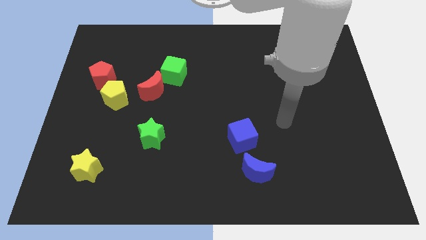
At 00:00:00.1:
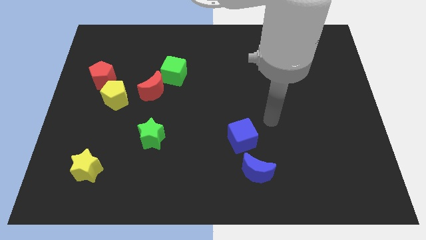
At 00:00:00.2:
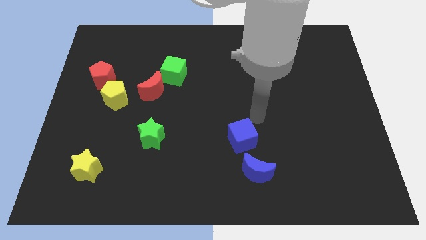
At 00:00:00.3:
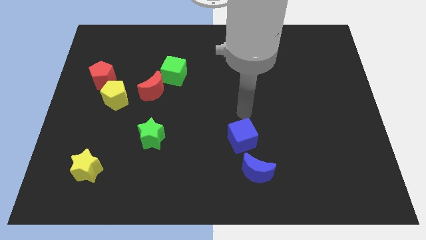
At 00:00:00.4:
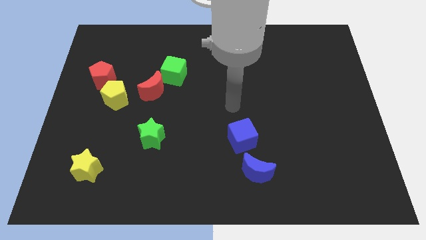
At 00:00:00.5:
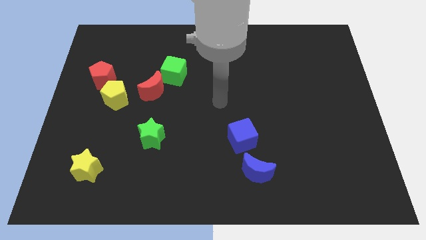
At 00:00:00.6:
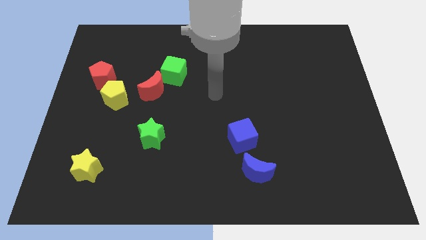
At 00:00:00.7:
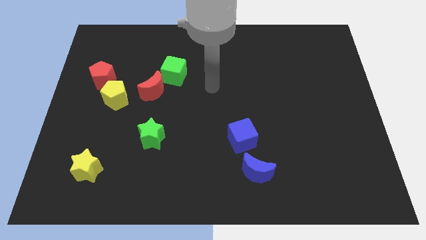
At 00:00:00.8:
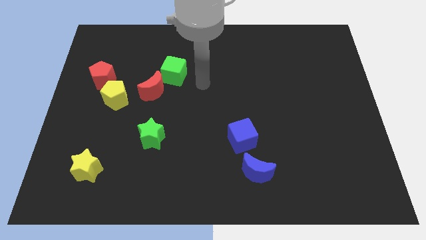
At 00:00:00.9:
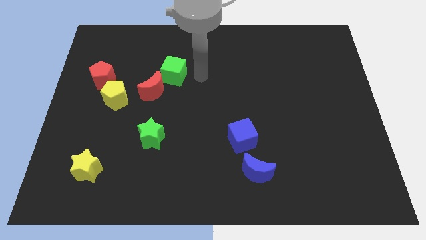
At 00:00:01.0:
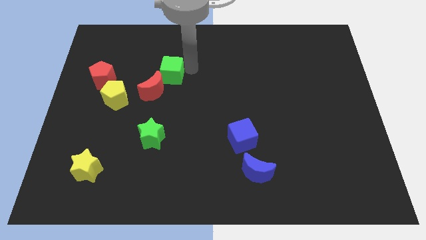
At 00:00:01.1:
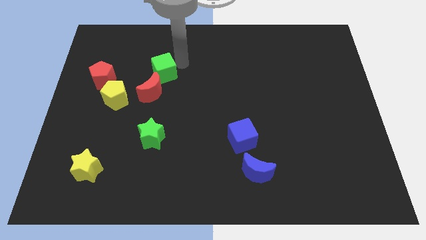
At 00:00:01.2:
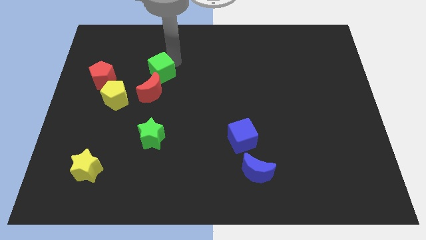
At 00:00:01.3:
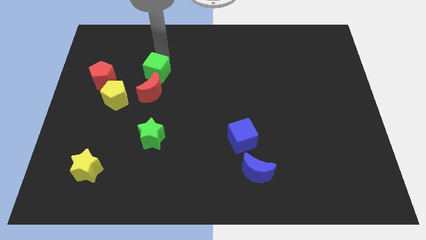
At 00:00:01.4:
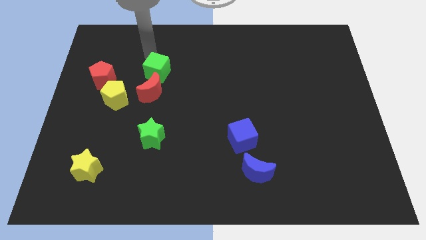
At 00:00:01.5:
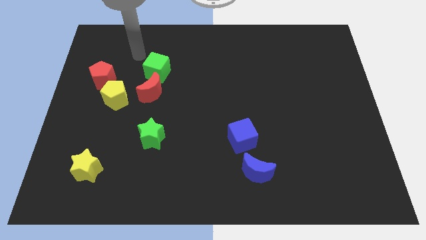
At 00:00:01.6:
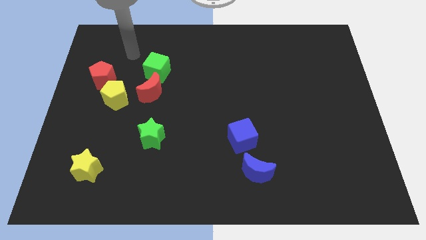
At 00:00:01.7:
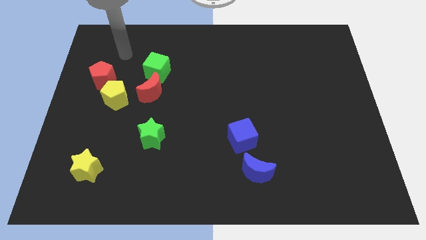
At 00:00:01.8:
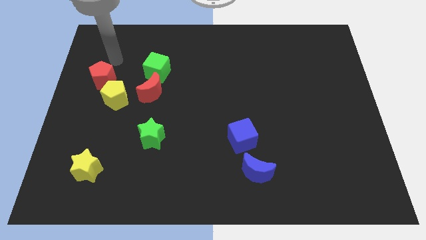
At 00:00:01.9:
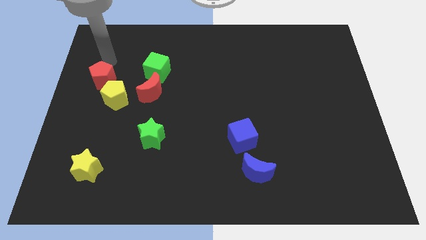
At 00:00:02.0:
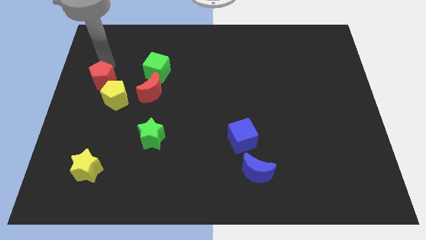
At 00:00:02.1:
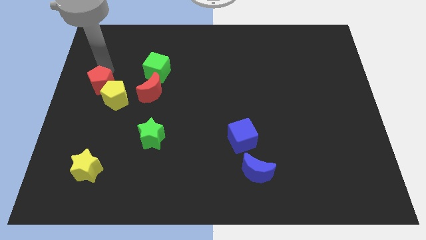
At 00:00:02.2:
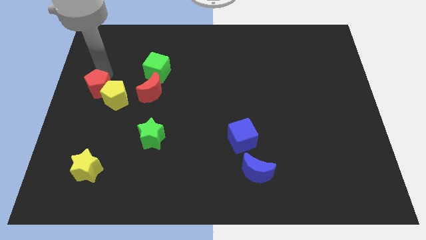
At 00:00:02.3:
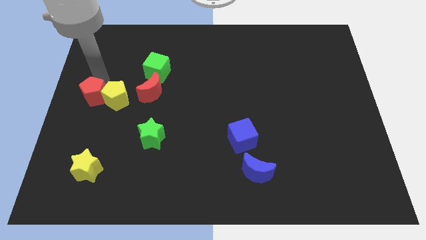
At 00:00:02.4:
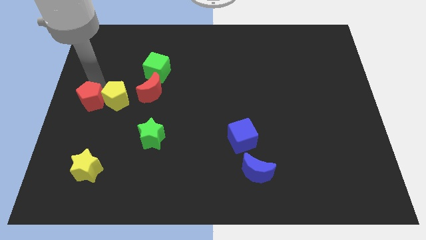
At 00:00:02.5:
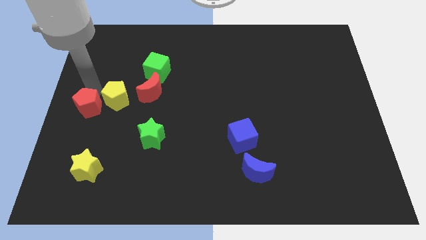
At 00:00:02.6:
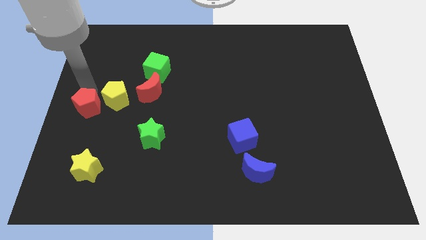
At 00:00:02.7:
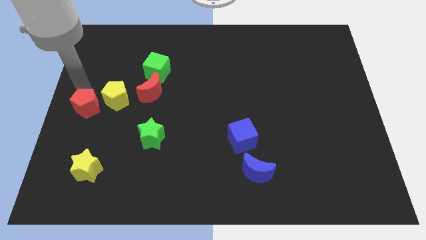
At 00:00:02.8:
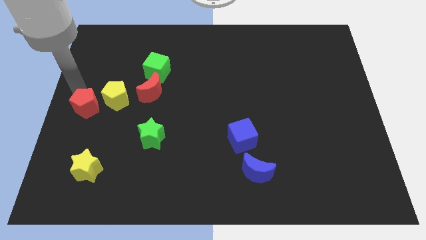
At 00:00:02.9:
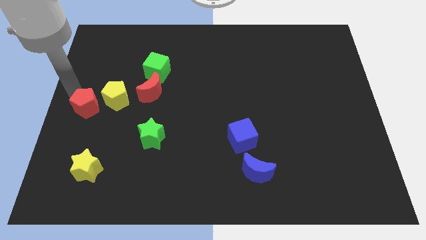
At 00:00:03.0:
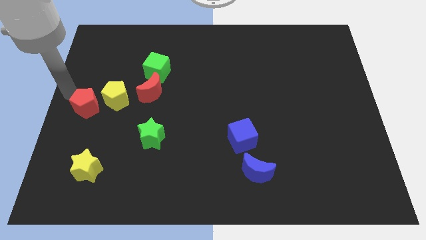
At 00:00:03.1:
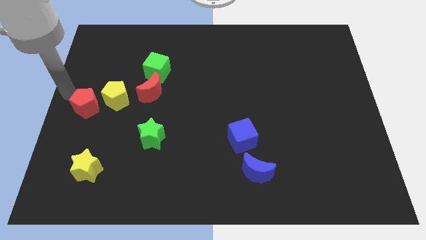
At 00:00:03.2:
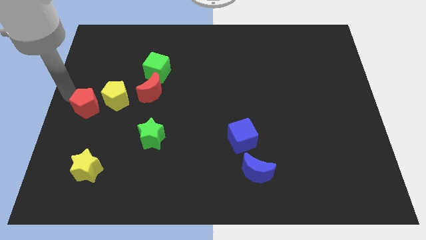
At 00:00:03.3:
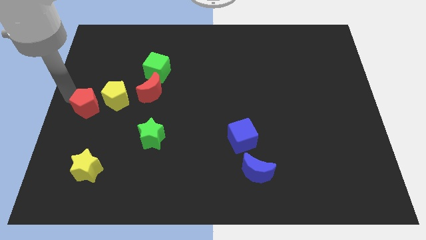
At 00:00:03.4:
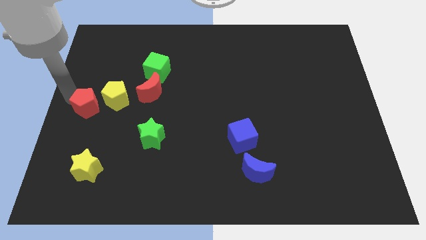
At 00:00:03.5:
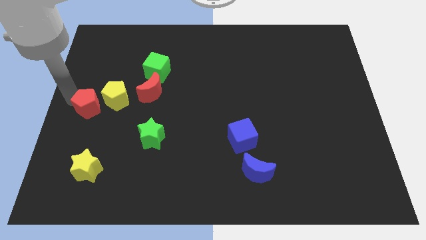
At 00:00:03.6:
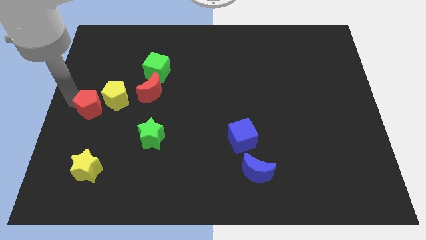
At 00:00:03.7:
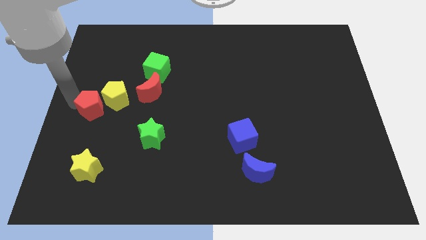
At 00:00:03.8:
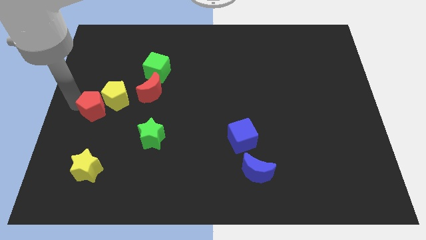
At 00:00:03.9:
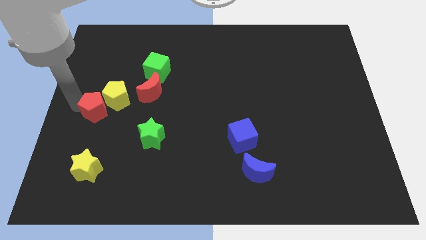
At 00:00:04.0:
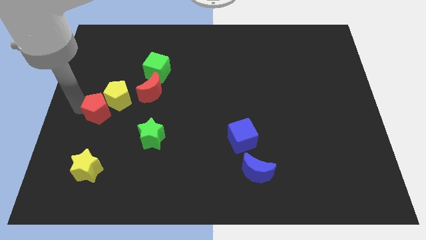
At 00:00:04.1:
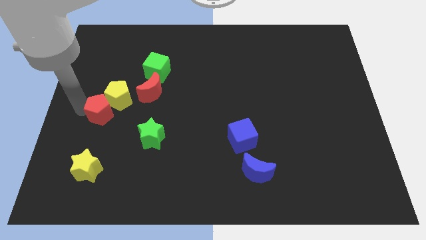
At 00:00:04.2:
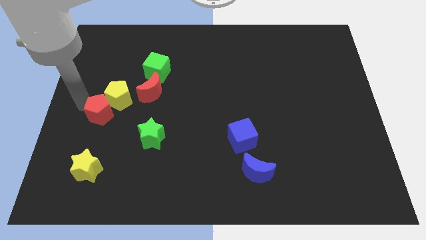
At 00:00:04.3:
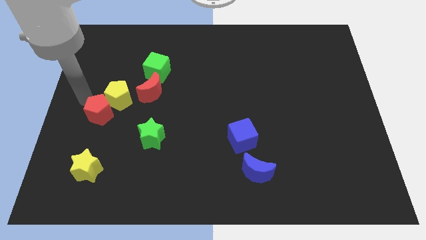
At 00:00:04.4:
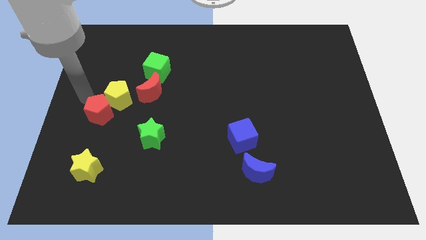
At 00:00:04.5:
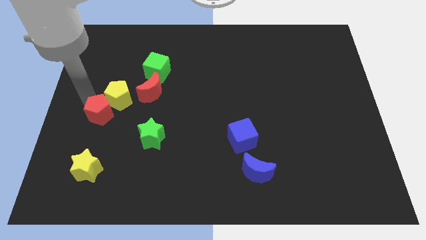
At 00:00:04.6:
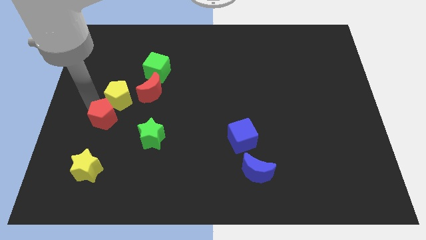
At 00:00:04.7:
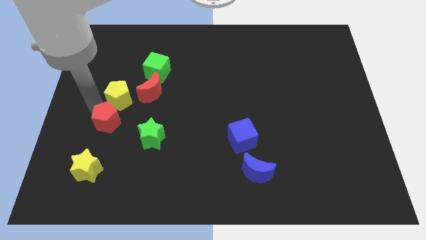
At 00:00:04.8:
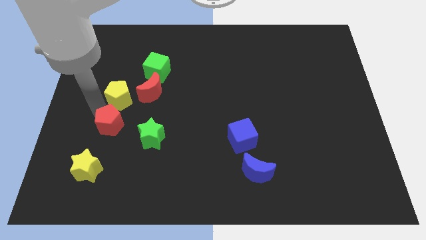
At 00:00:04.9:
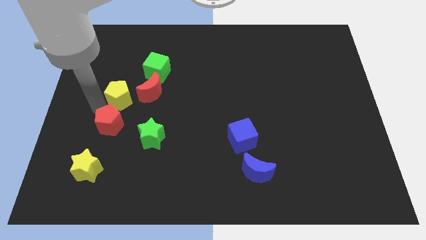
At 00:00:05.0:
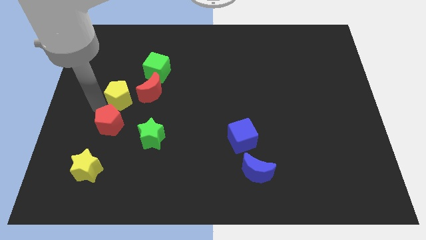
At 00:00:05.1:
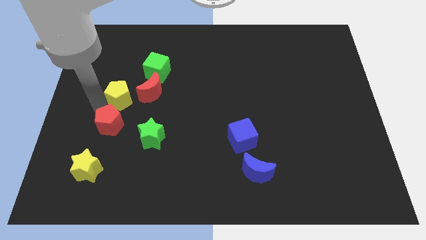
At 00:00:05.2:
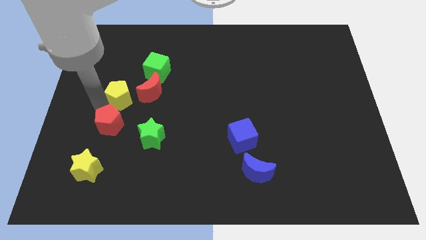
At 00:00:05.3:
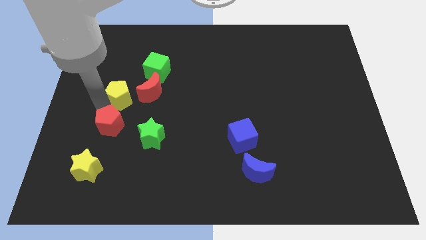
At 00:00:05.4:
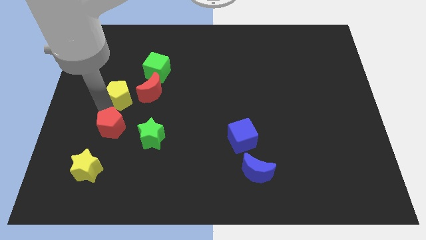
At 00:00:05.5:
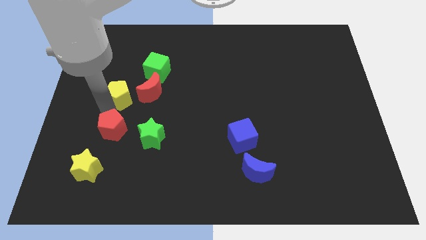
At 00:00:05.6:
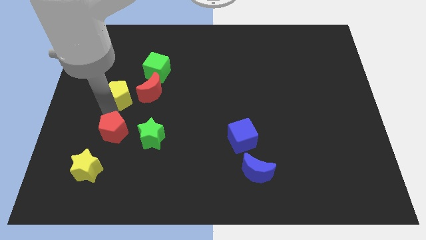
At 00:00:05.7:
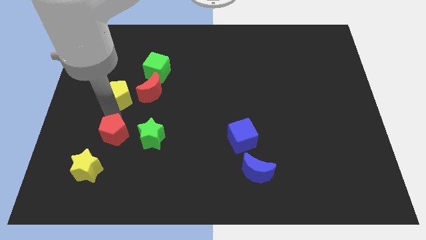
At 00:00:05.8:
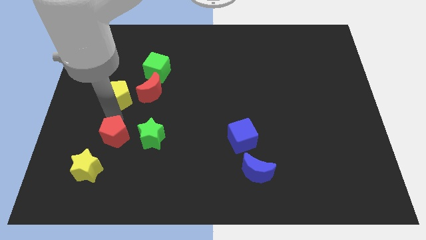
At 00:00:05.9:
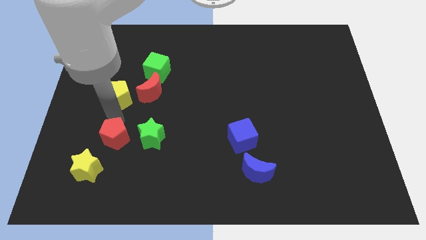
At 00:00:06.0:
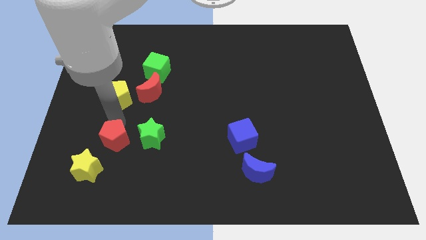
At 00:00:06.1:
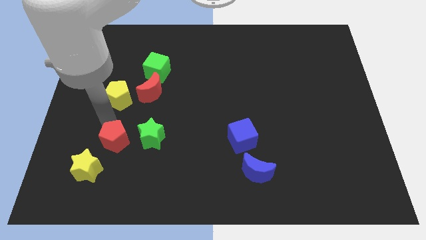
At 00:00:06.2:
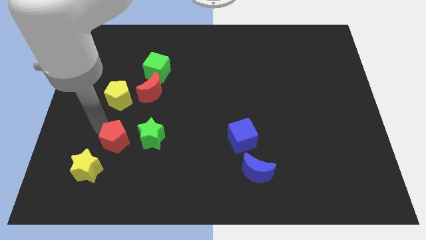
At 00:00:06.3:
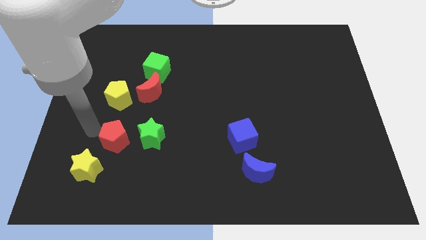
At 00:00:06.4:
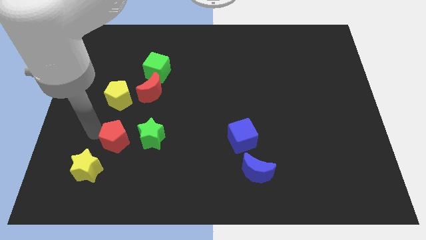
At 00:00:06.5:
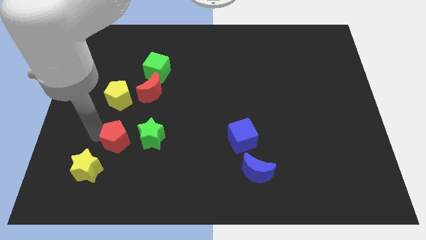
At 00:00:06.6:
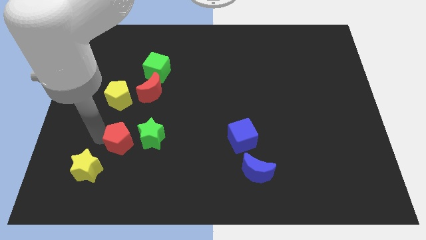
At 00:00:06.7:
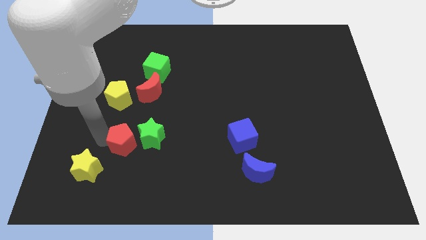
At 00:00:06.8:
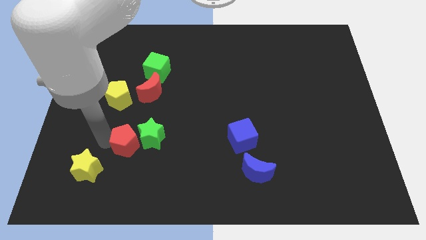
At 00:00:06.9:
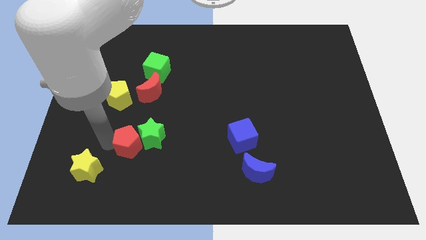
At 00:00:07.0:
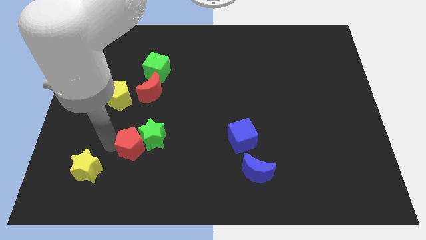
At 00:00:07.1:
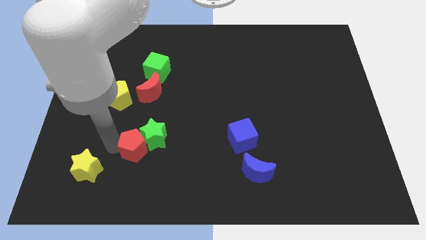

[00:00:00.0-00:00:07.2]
slide the red pentagon down and then to the right

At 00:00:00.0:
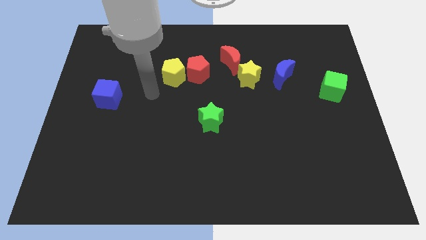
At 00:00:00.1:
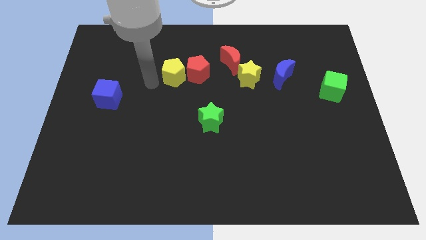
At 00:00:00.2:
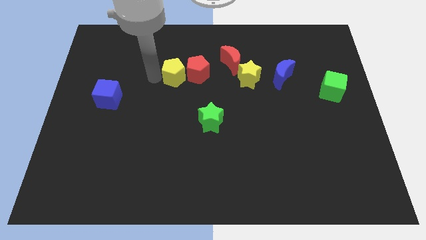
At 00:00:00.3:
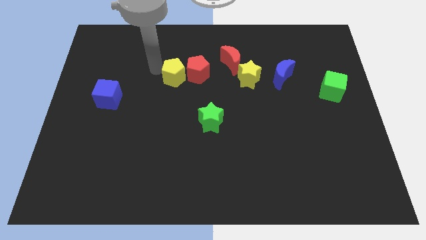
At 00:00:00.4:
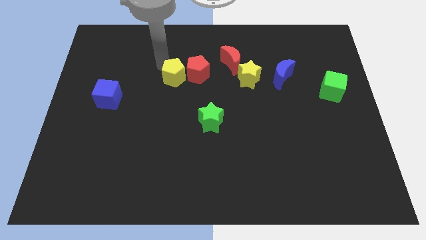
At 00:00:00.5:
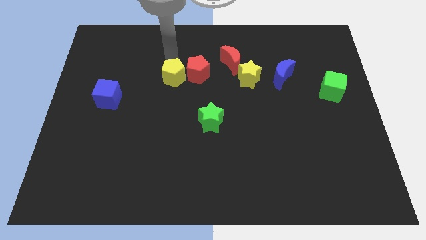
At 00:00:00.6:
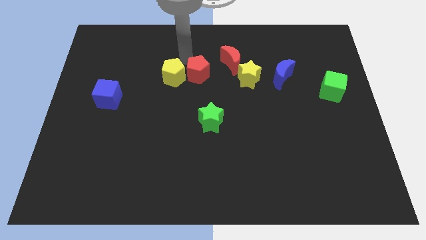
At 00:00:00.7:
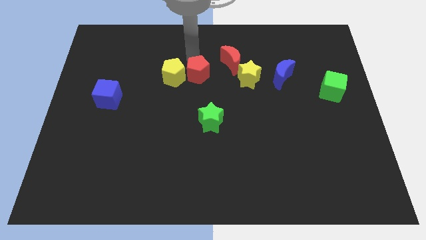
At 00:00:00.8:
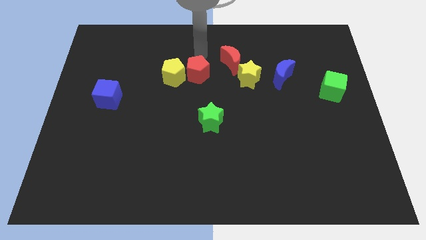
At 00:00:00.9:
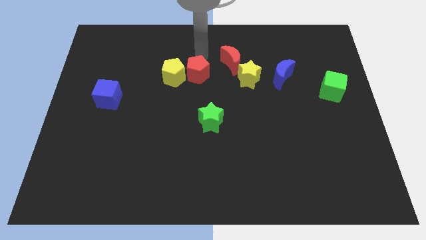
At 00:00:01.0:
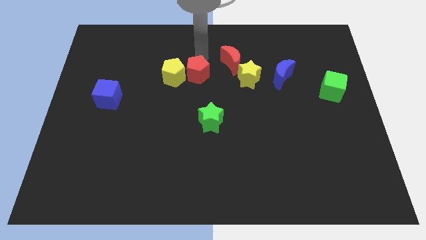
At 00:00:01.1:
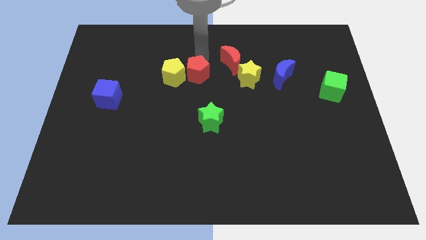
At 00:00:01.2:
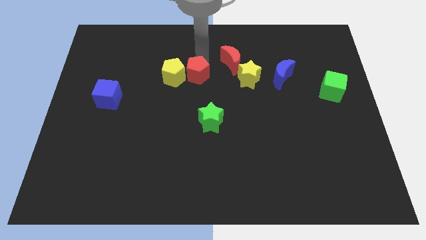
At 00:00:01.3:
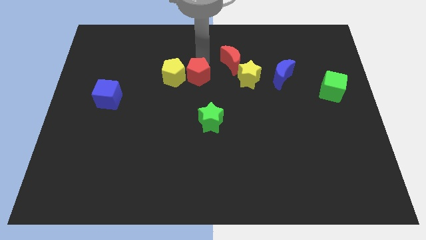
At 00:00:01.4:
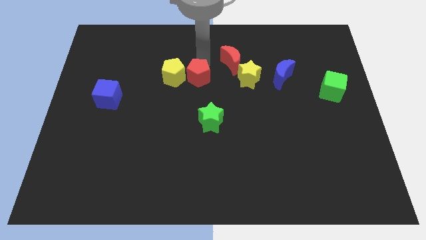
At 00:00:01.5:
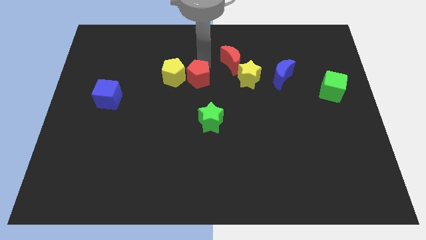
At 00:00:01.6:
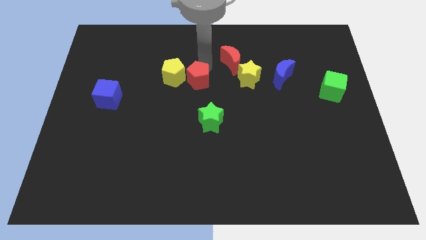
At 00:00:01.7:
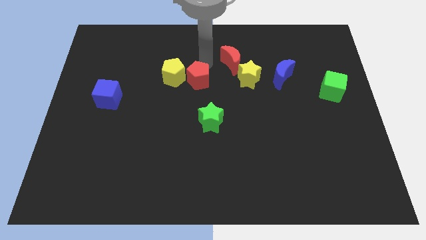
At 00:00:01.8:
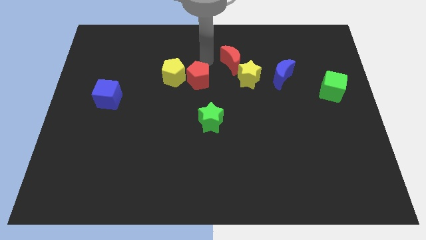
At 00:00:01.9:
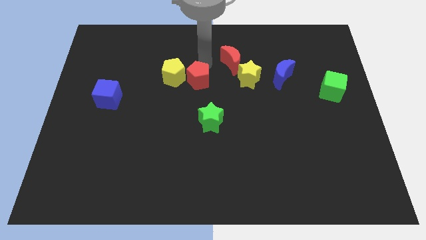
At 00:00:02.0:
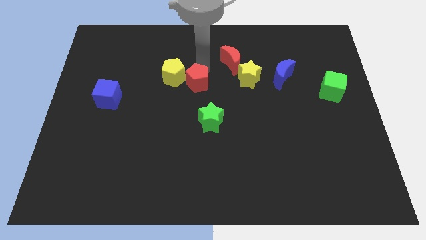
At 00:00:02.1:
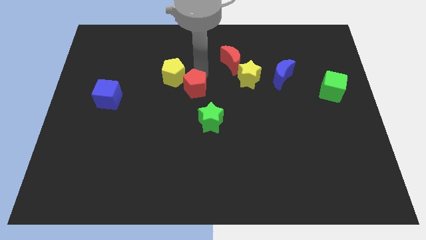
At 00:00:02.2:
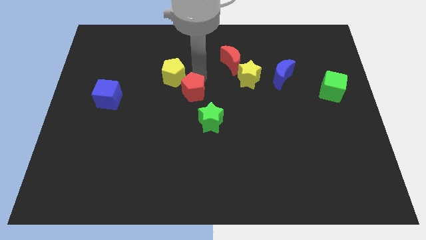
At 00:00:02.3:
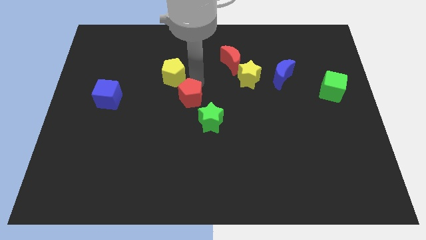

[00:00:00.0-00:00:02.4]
slide the red pentagon down a bit
